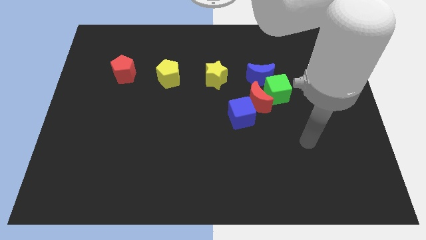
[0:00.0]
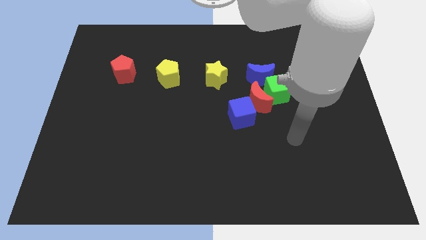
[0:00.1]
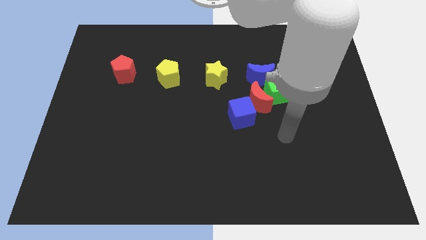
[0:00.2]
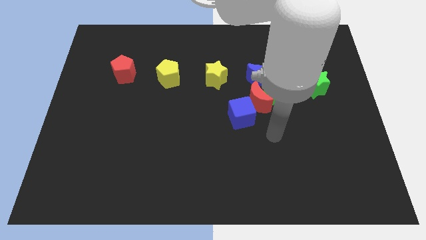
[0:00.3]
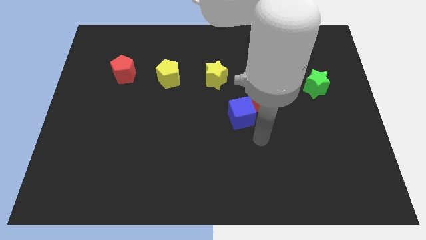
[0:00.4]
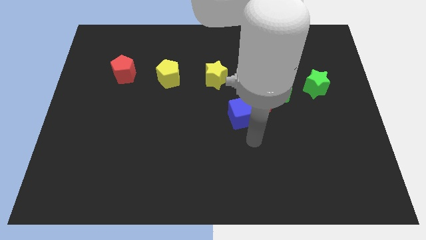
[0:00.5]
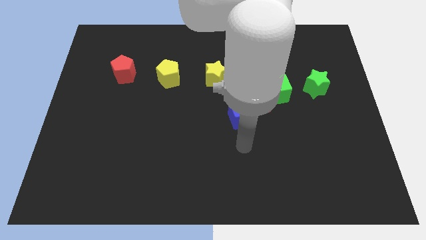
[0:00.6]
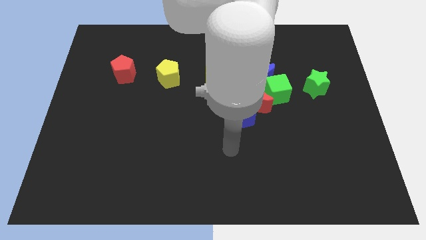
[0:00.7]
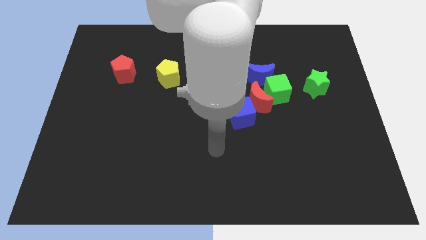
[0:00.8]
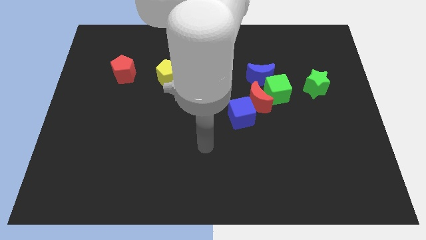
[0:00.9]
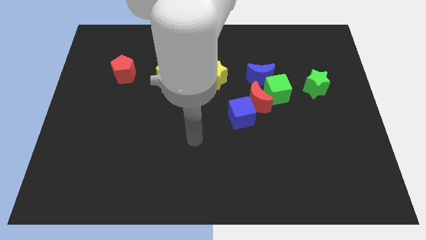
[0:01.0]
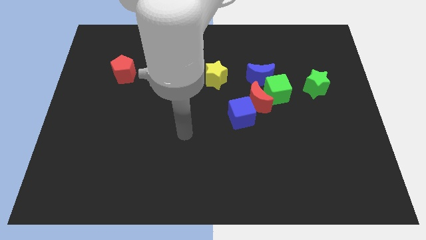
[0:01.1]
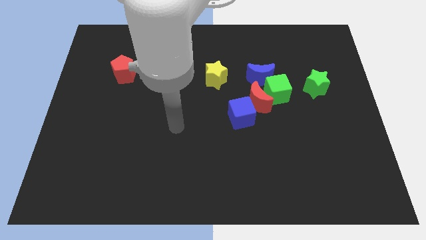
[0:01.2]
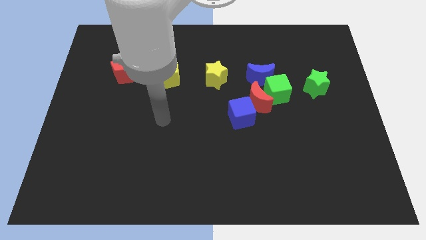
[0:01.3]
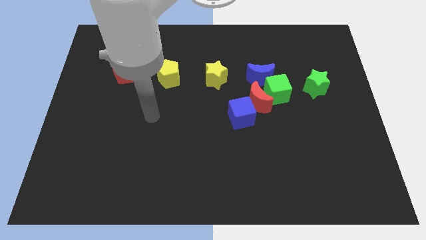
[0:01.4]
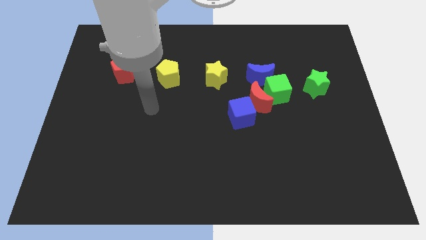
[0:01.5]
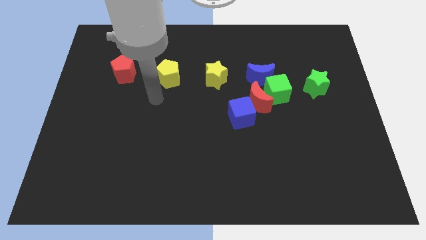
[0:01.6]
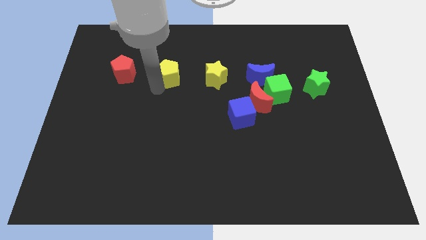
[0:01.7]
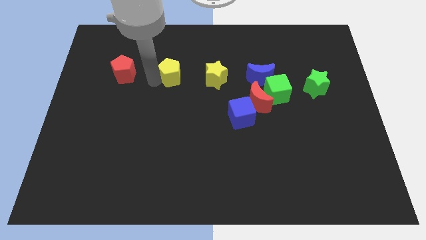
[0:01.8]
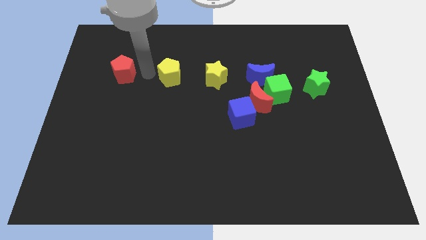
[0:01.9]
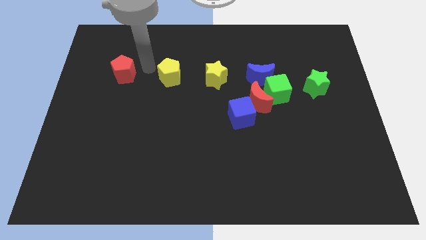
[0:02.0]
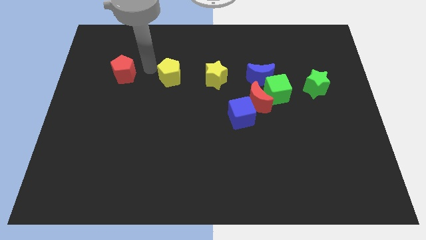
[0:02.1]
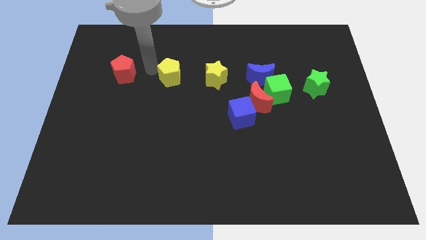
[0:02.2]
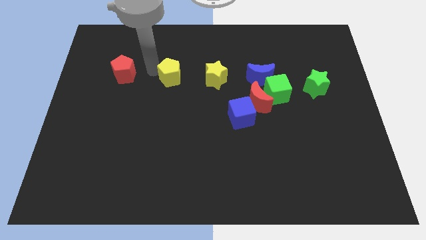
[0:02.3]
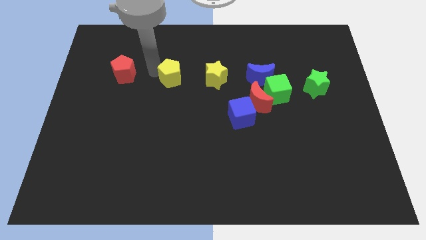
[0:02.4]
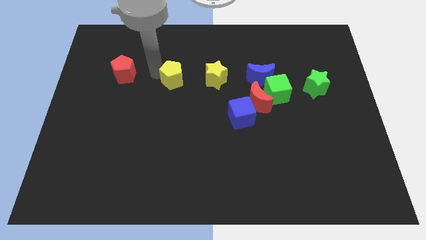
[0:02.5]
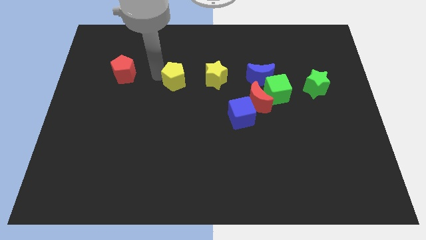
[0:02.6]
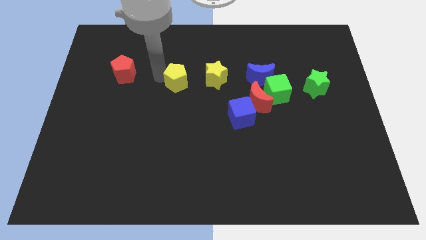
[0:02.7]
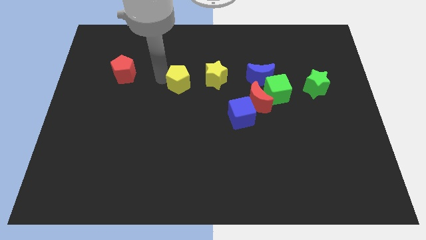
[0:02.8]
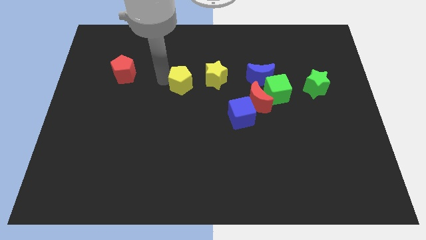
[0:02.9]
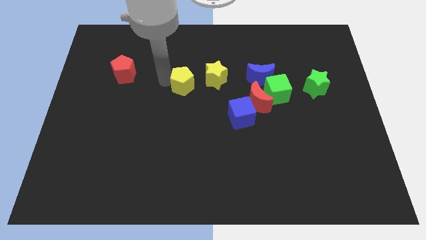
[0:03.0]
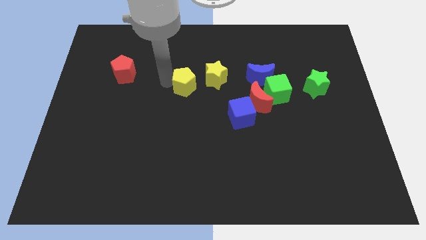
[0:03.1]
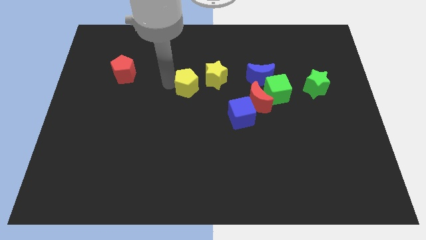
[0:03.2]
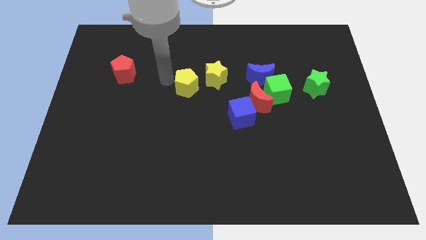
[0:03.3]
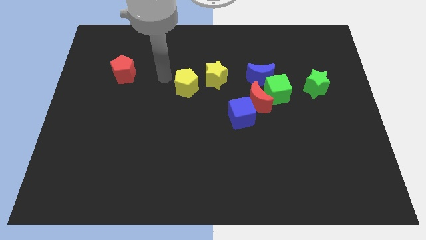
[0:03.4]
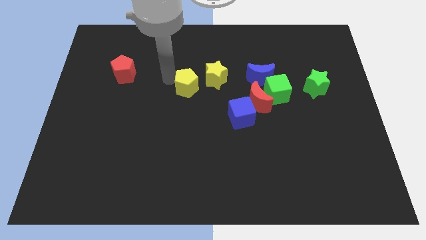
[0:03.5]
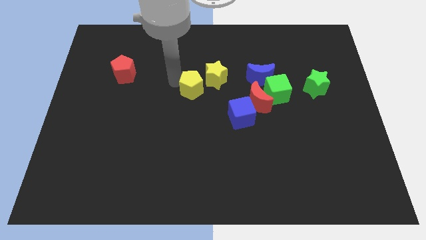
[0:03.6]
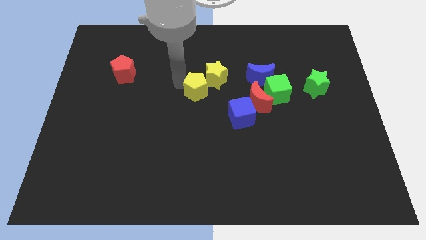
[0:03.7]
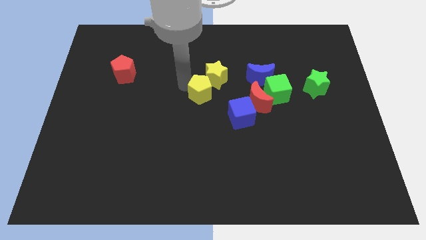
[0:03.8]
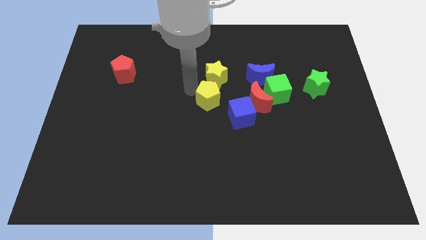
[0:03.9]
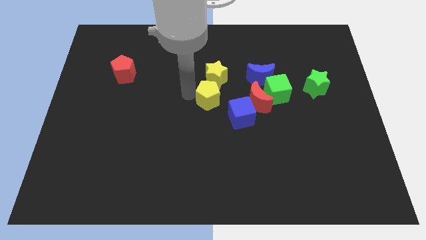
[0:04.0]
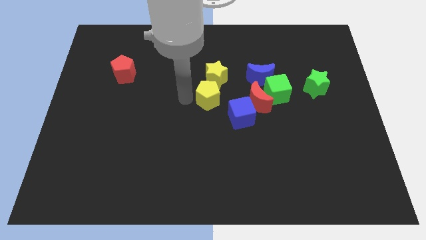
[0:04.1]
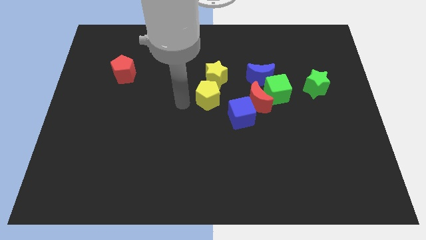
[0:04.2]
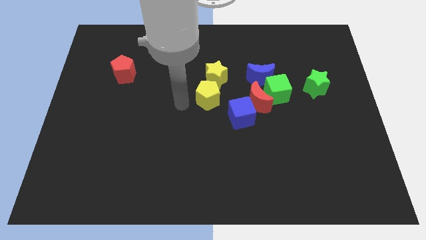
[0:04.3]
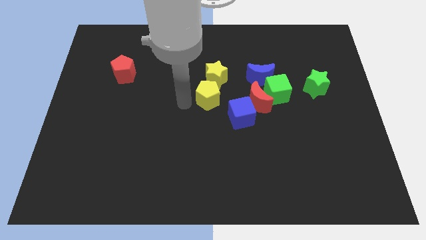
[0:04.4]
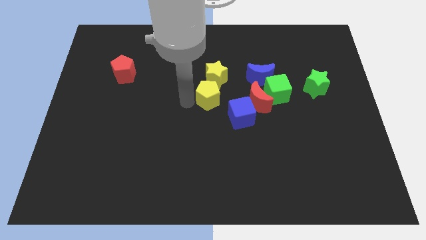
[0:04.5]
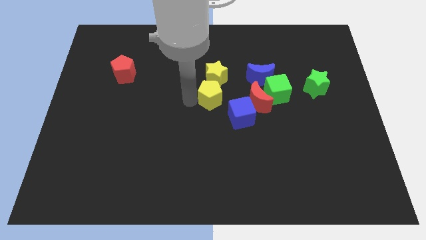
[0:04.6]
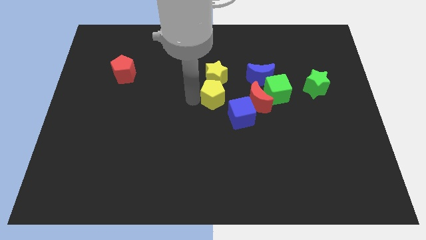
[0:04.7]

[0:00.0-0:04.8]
move the yellow pentagon just left of the green cube

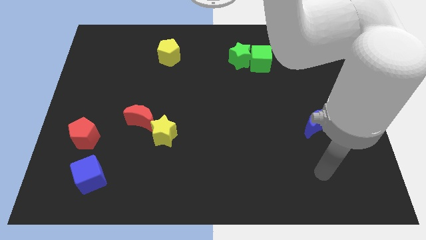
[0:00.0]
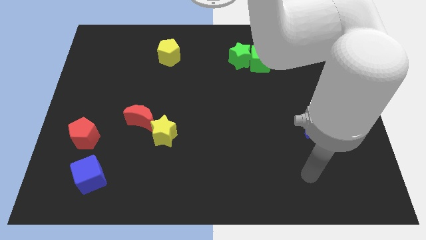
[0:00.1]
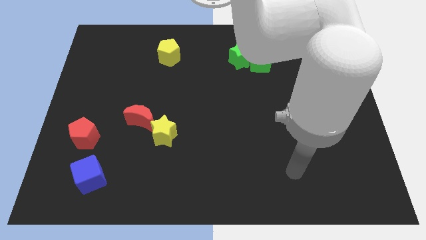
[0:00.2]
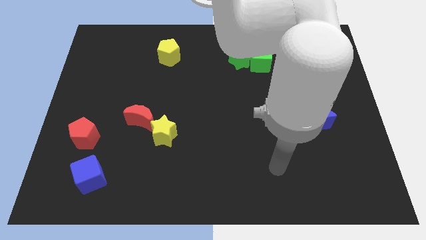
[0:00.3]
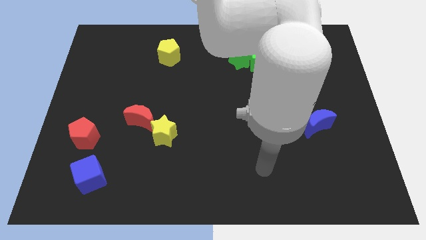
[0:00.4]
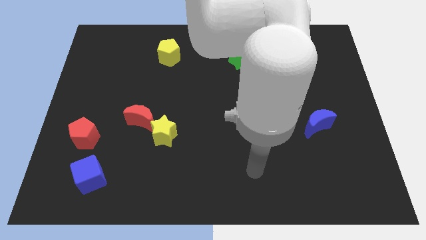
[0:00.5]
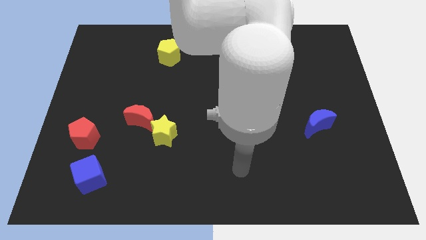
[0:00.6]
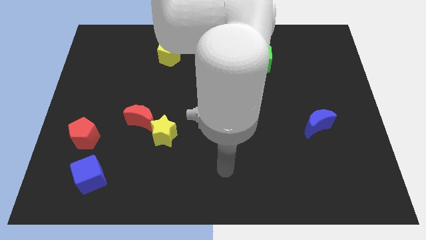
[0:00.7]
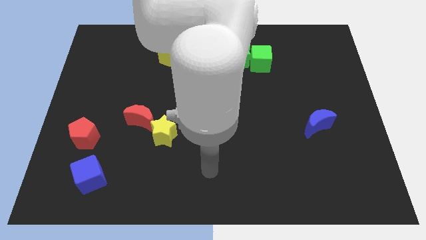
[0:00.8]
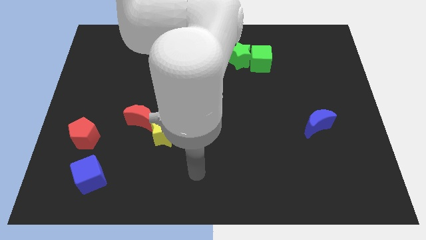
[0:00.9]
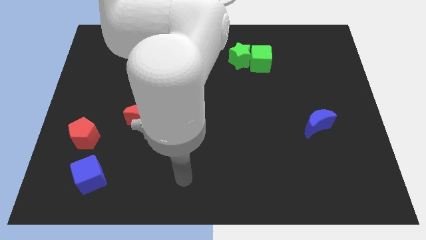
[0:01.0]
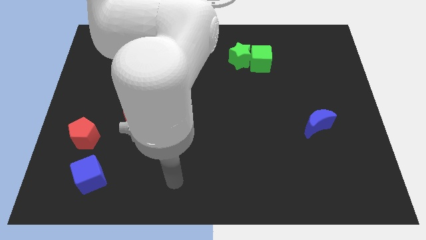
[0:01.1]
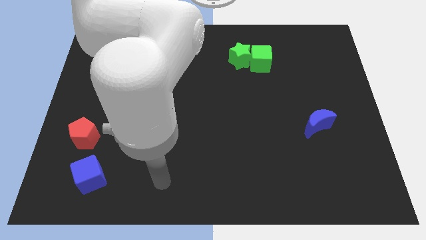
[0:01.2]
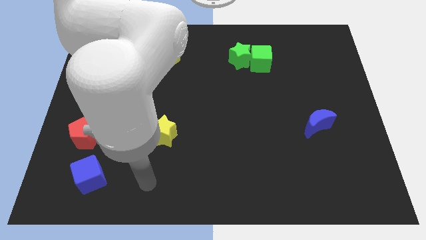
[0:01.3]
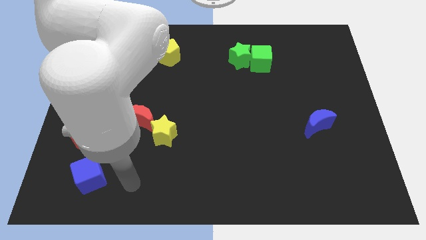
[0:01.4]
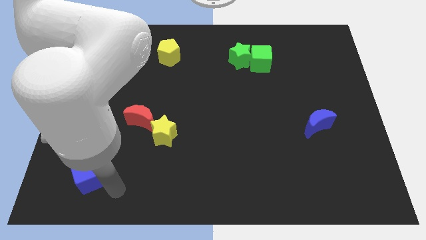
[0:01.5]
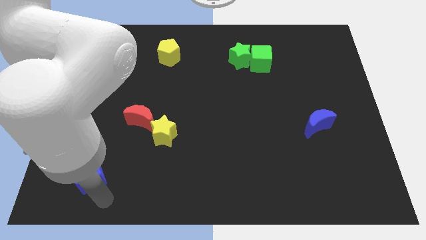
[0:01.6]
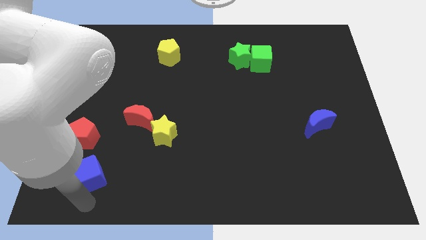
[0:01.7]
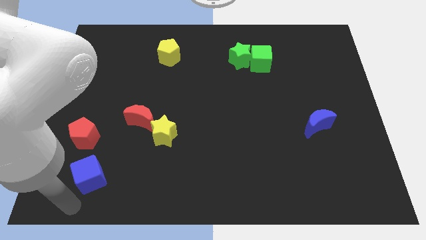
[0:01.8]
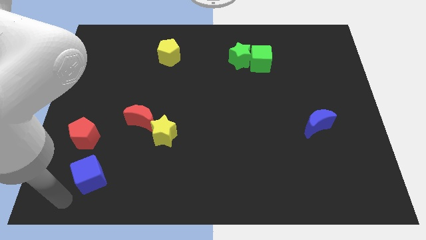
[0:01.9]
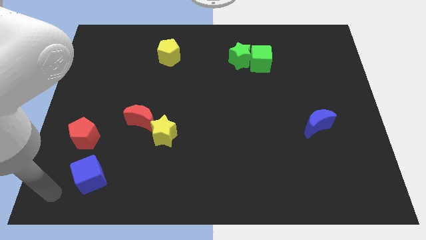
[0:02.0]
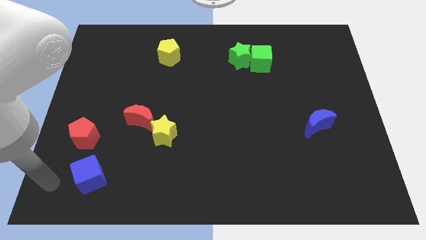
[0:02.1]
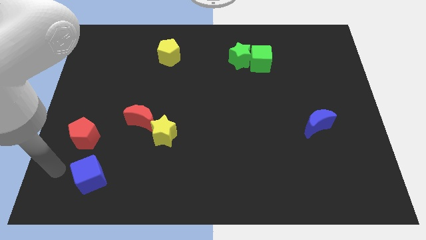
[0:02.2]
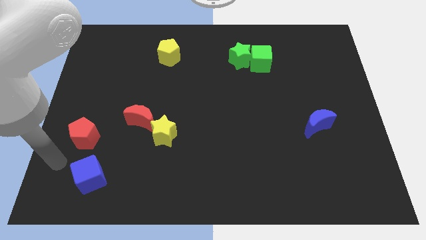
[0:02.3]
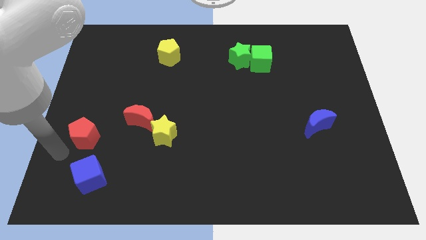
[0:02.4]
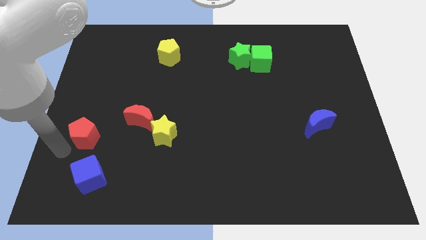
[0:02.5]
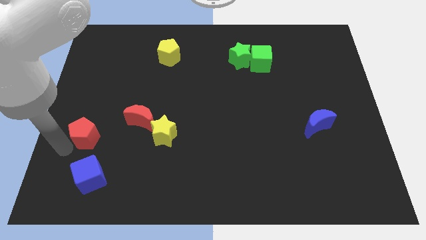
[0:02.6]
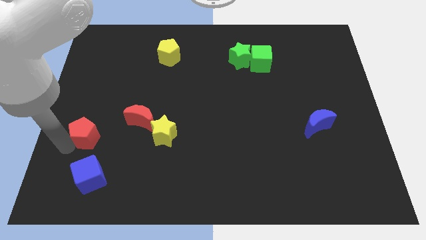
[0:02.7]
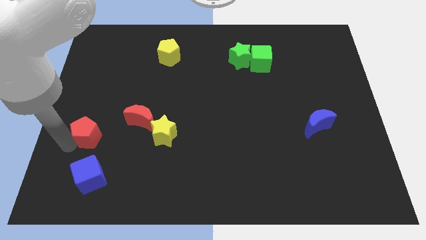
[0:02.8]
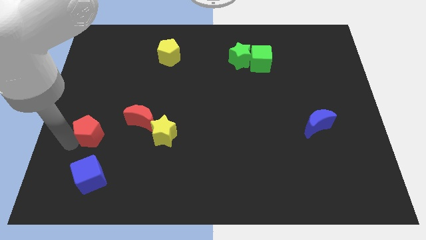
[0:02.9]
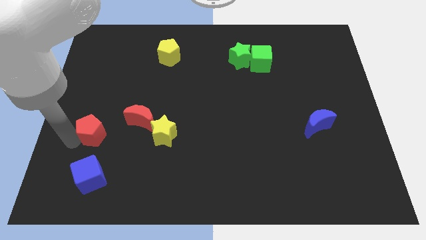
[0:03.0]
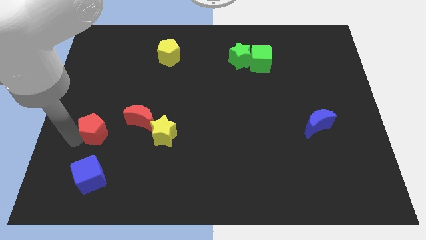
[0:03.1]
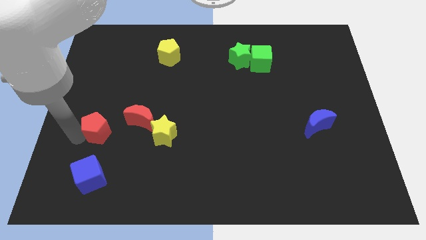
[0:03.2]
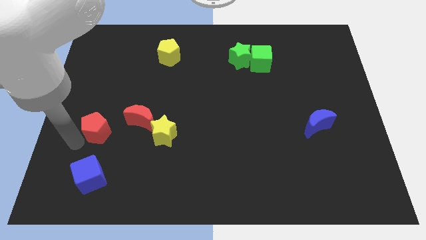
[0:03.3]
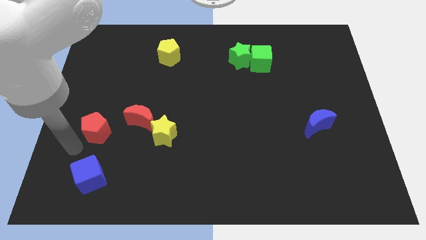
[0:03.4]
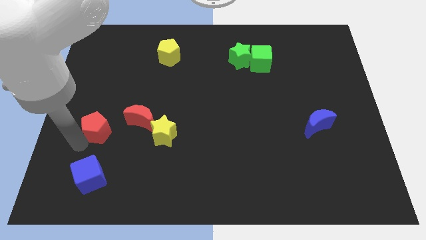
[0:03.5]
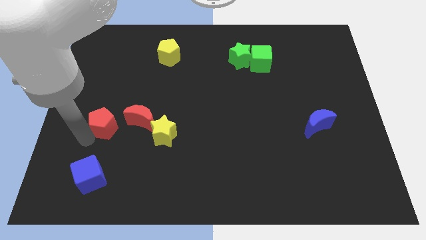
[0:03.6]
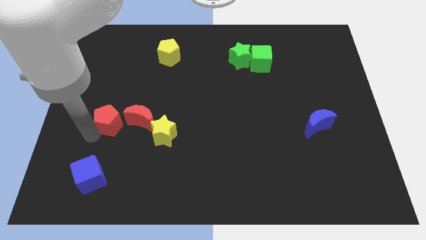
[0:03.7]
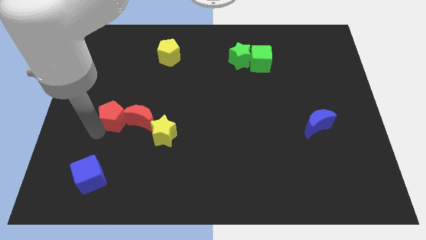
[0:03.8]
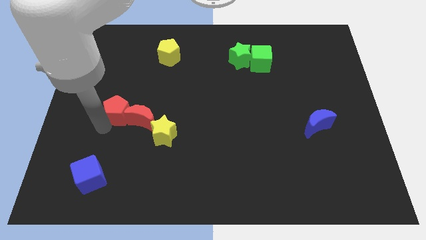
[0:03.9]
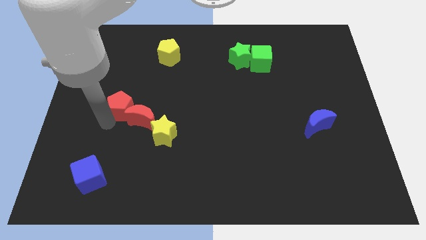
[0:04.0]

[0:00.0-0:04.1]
push the red pentagon to the top left of the yellow star
